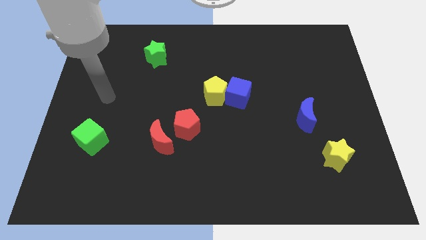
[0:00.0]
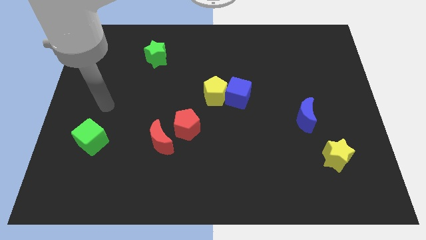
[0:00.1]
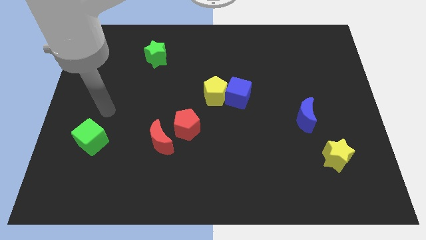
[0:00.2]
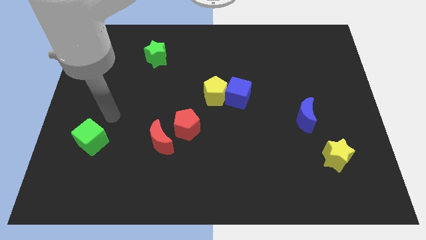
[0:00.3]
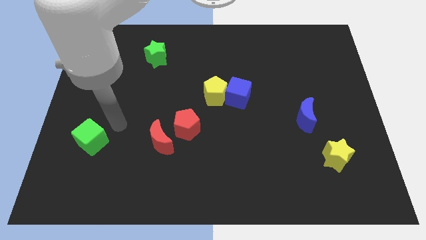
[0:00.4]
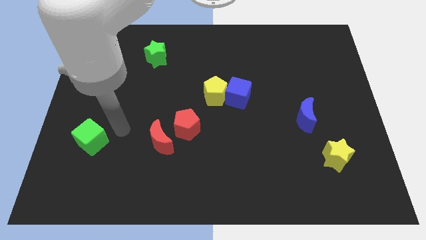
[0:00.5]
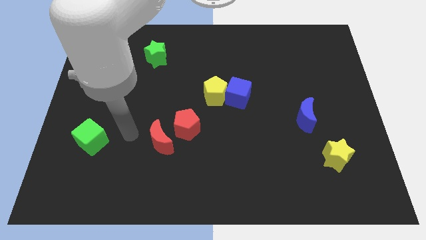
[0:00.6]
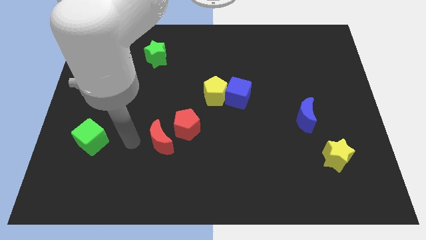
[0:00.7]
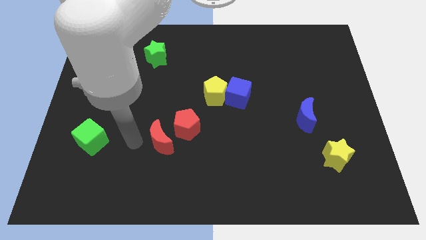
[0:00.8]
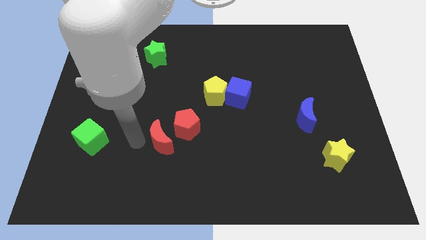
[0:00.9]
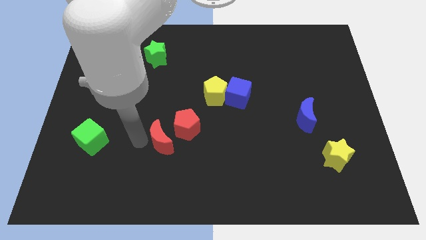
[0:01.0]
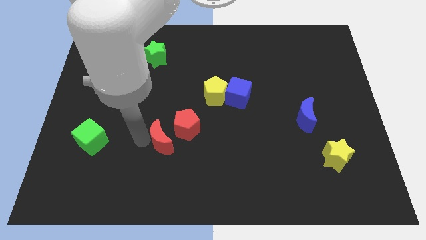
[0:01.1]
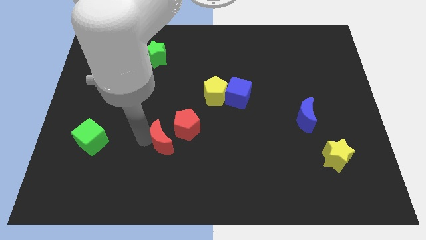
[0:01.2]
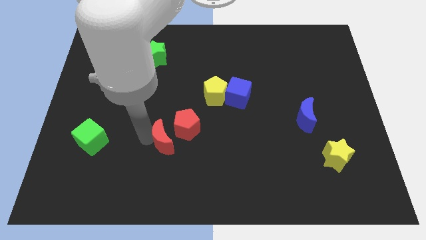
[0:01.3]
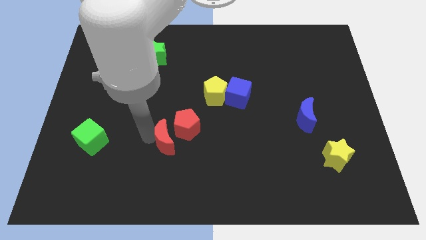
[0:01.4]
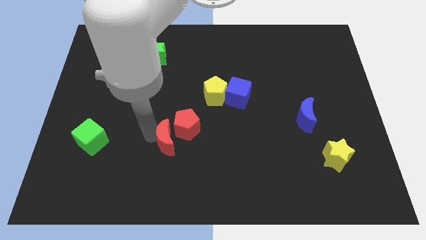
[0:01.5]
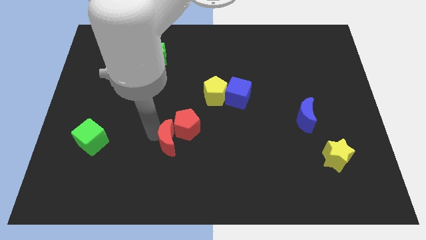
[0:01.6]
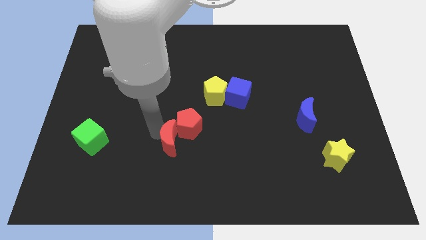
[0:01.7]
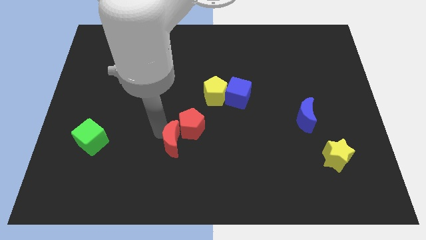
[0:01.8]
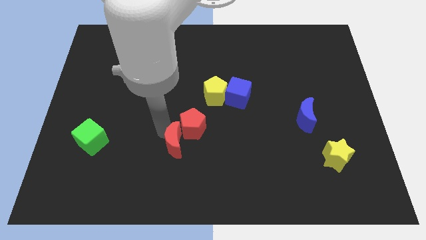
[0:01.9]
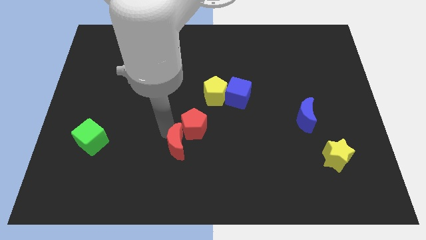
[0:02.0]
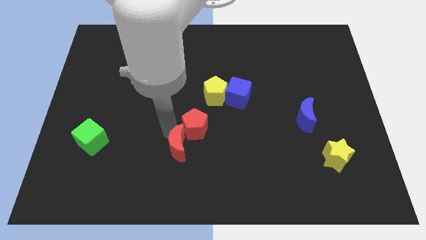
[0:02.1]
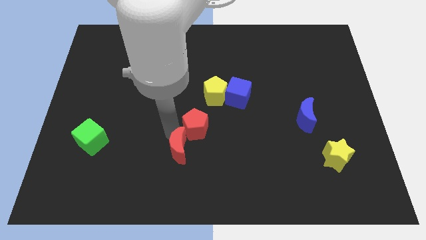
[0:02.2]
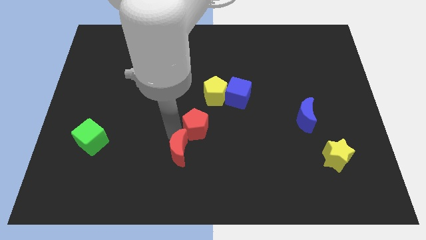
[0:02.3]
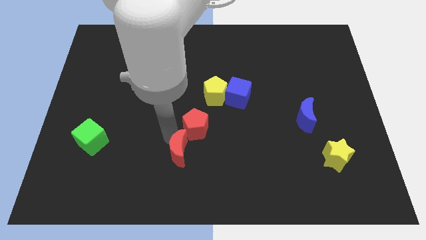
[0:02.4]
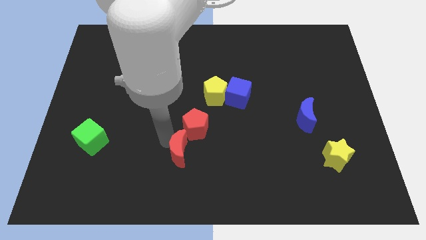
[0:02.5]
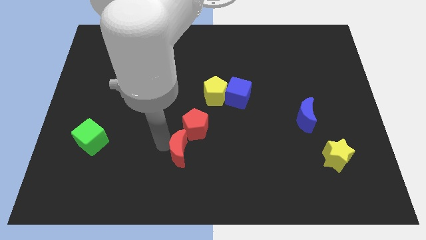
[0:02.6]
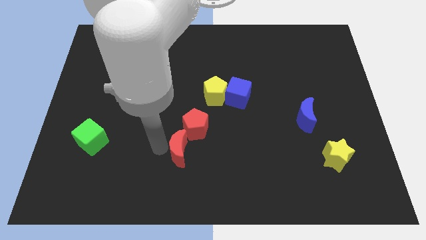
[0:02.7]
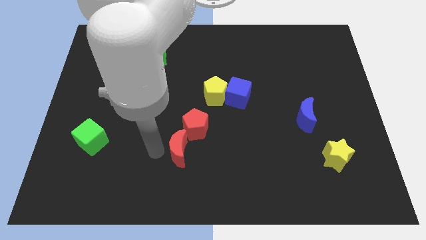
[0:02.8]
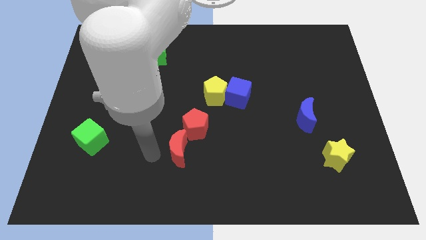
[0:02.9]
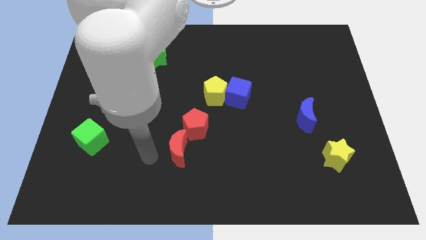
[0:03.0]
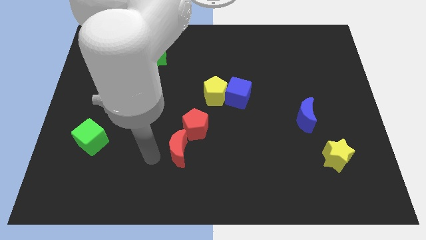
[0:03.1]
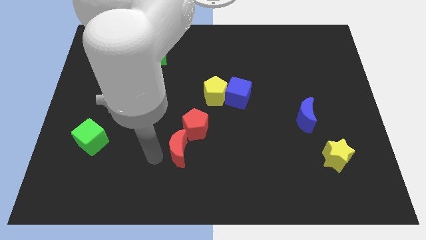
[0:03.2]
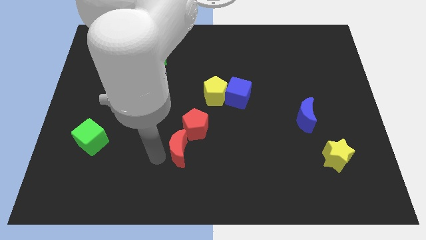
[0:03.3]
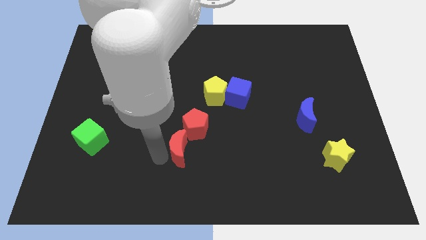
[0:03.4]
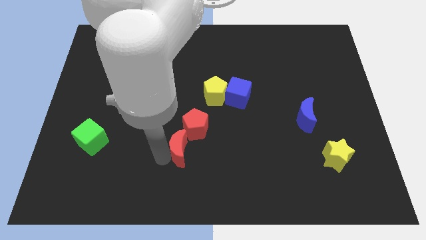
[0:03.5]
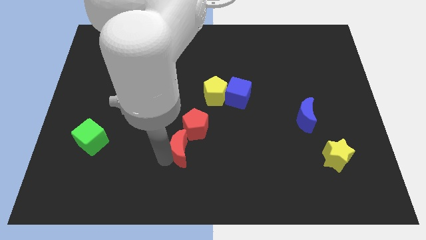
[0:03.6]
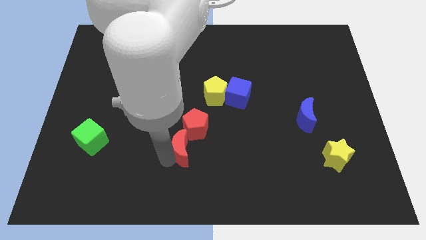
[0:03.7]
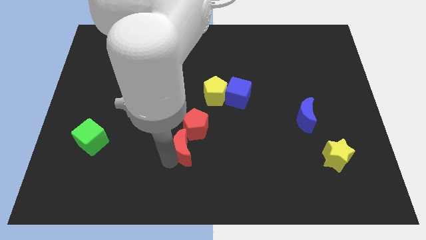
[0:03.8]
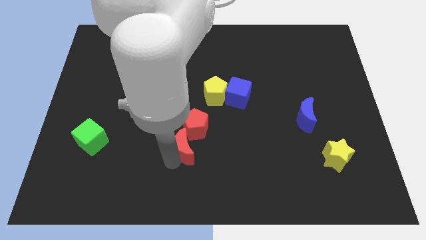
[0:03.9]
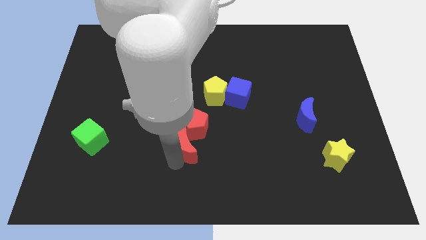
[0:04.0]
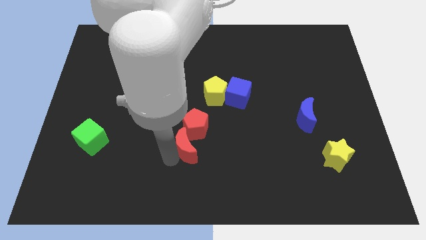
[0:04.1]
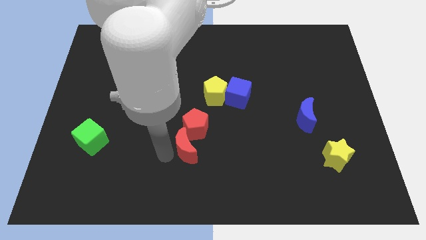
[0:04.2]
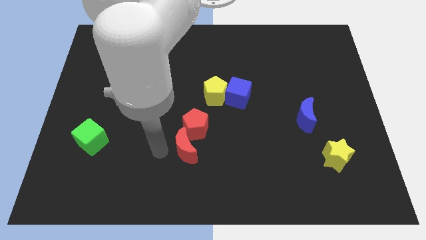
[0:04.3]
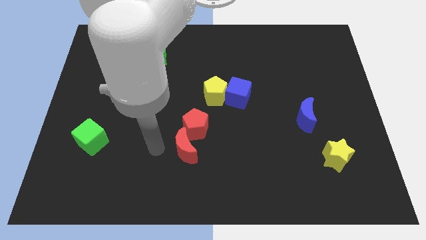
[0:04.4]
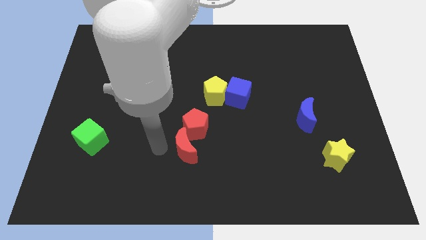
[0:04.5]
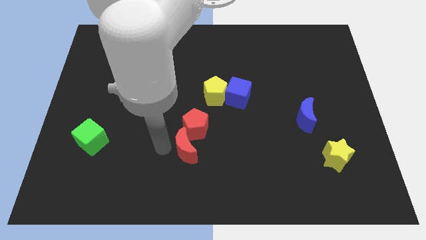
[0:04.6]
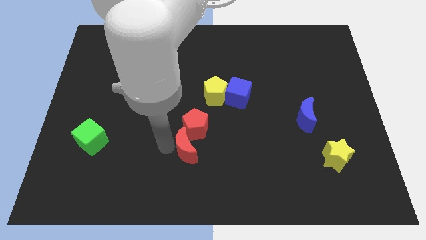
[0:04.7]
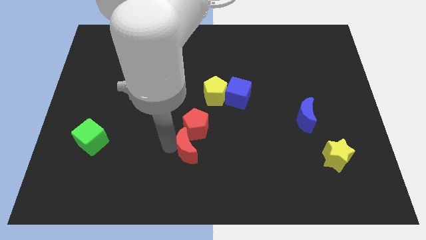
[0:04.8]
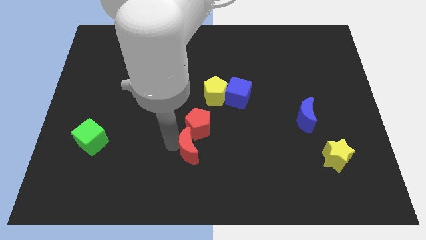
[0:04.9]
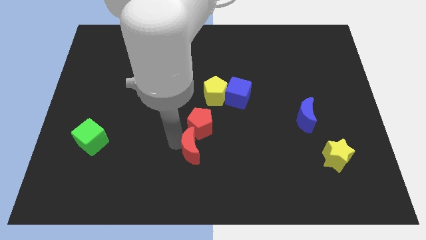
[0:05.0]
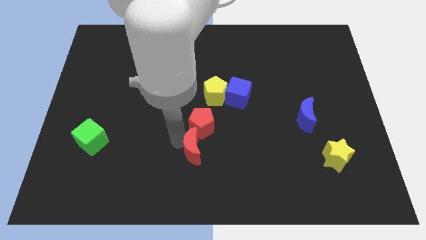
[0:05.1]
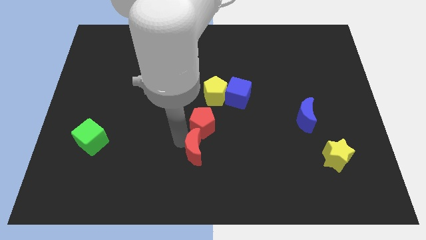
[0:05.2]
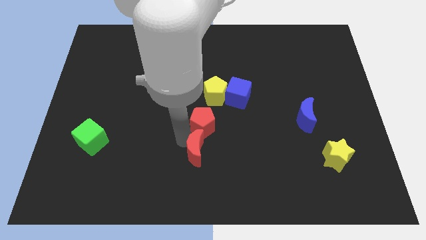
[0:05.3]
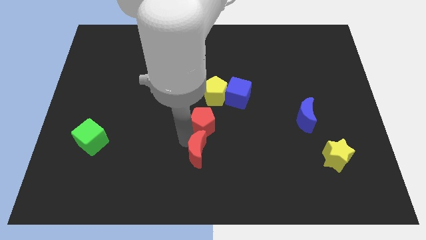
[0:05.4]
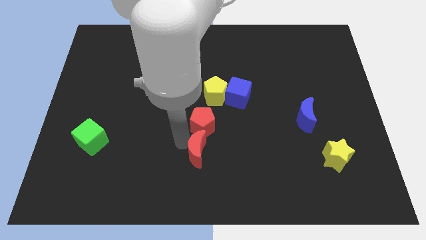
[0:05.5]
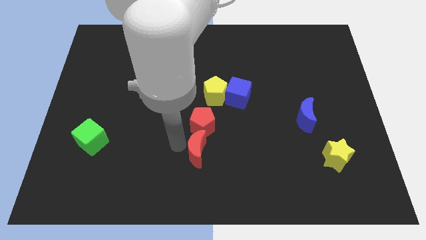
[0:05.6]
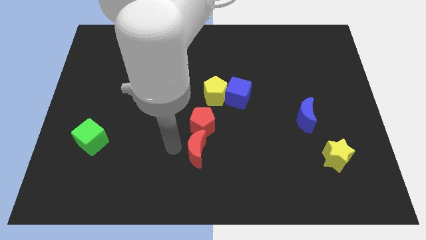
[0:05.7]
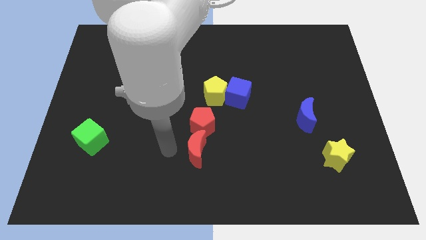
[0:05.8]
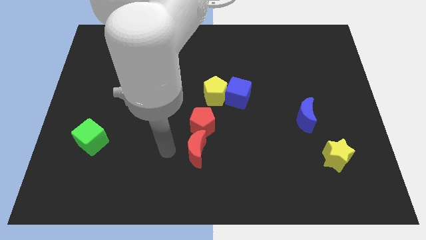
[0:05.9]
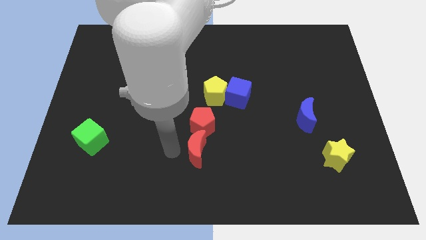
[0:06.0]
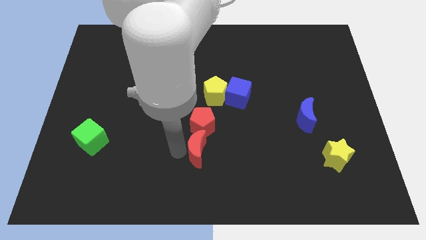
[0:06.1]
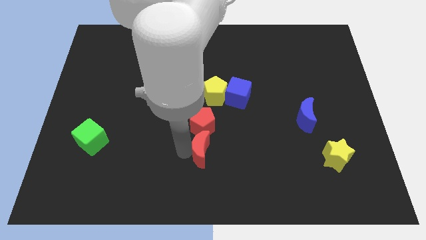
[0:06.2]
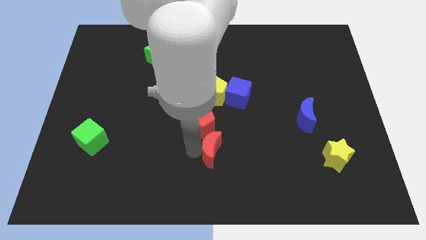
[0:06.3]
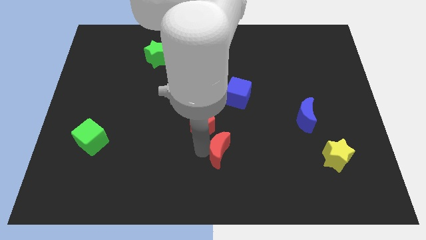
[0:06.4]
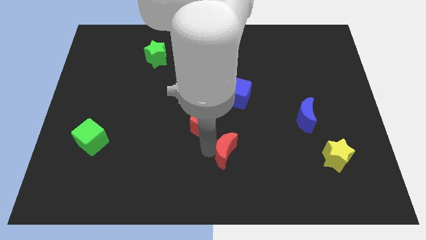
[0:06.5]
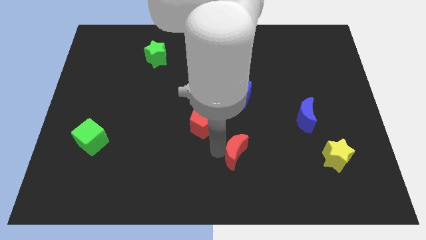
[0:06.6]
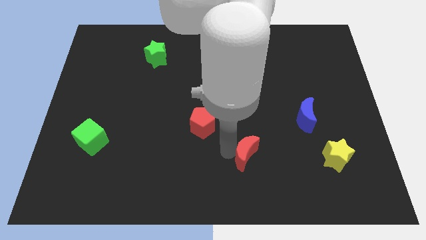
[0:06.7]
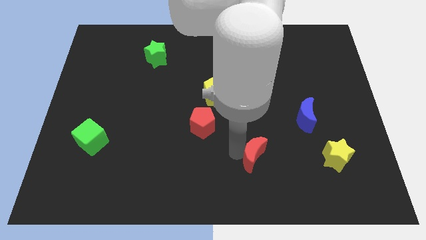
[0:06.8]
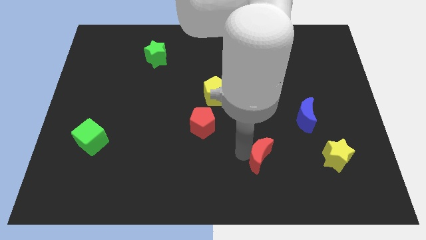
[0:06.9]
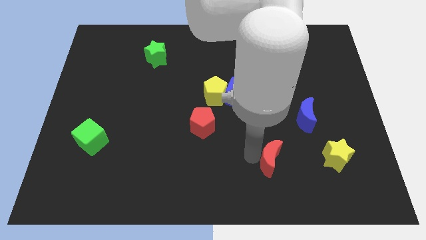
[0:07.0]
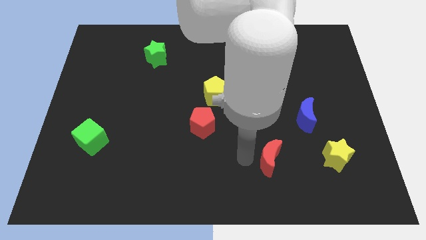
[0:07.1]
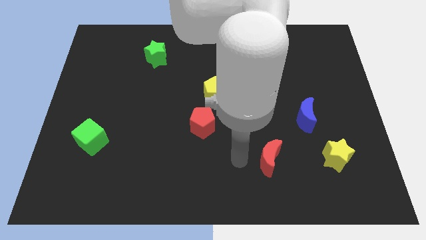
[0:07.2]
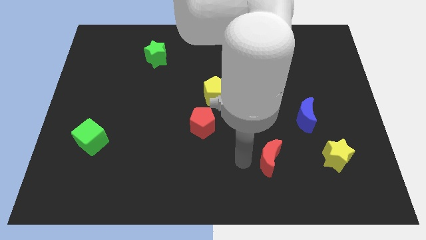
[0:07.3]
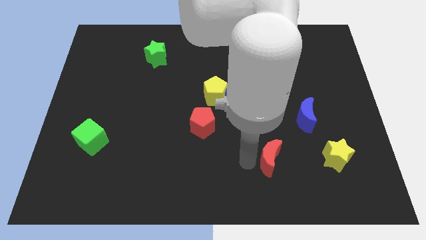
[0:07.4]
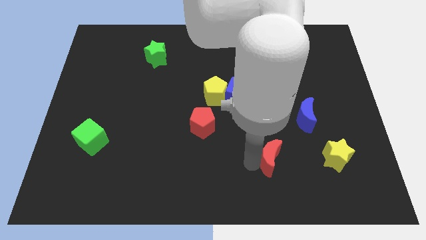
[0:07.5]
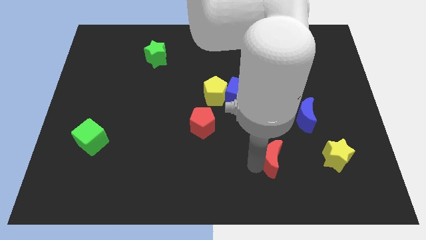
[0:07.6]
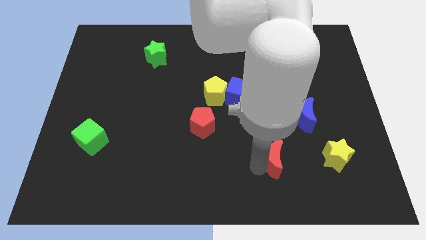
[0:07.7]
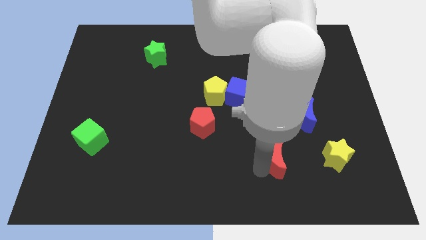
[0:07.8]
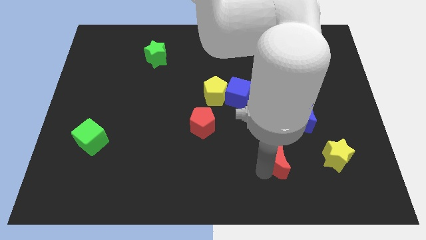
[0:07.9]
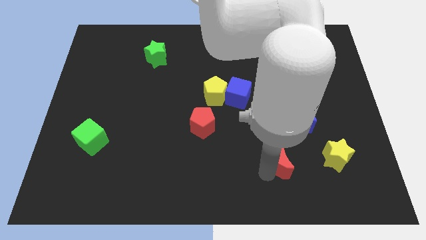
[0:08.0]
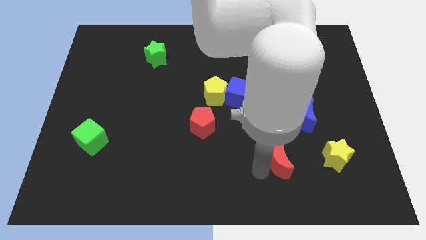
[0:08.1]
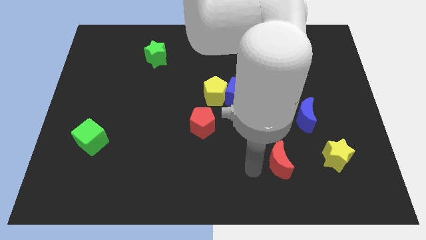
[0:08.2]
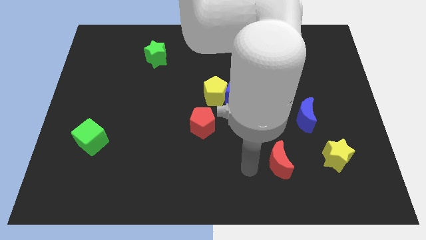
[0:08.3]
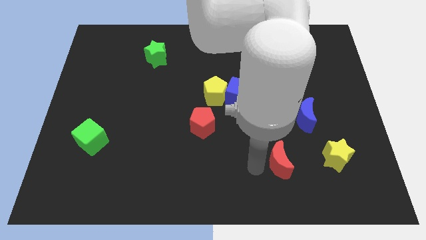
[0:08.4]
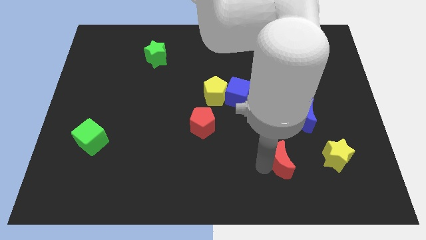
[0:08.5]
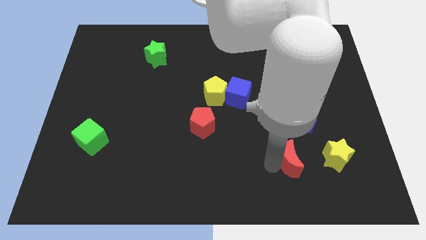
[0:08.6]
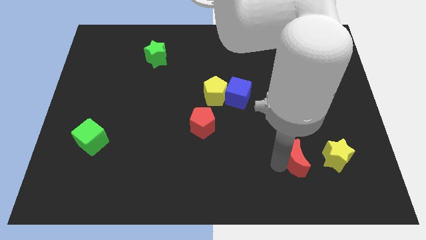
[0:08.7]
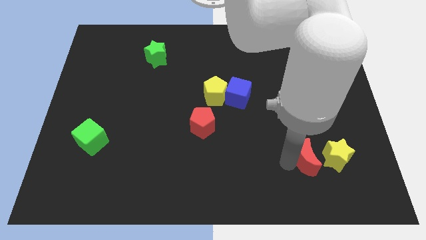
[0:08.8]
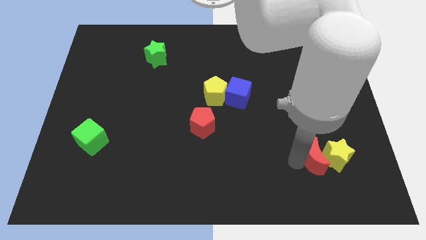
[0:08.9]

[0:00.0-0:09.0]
push the red moon to the yellow star
